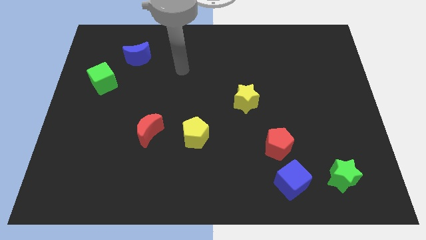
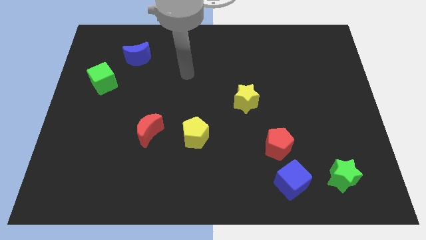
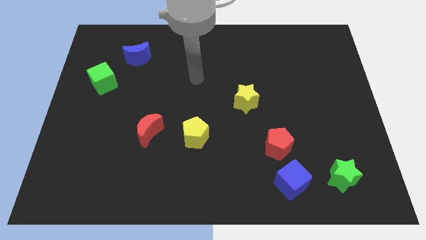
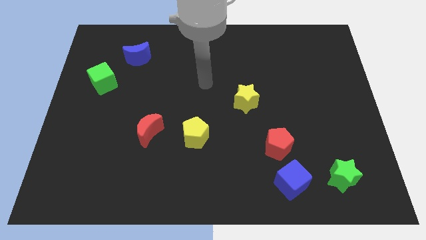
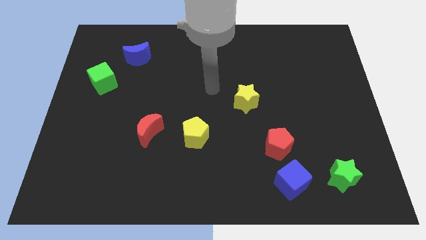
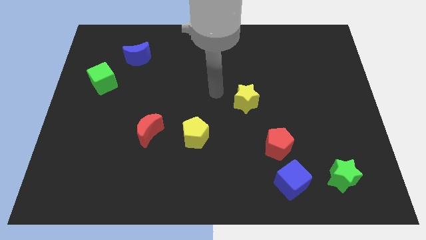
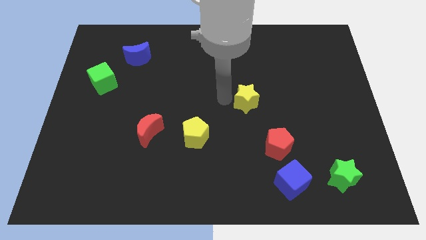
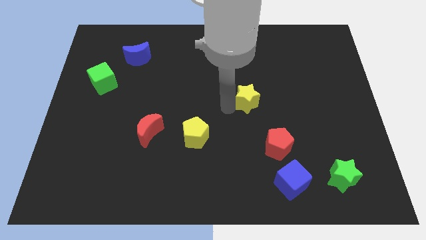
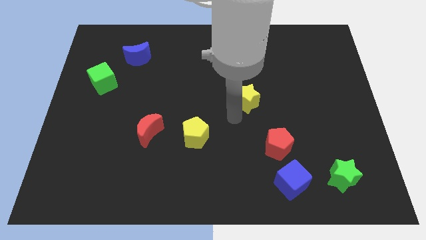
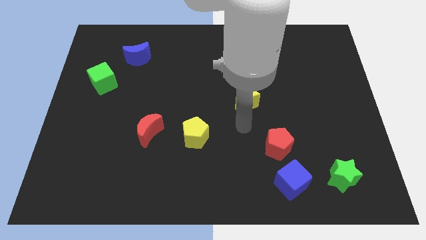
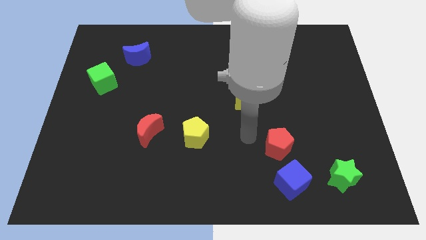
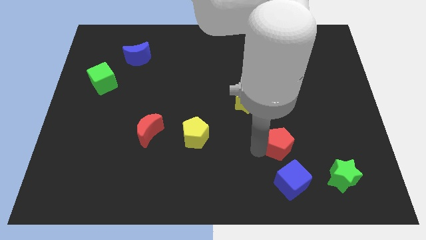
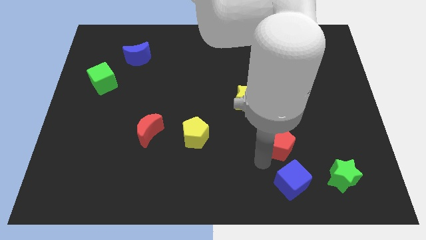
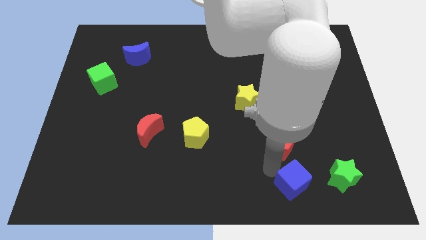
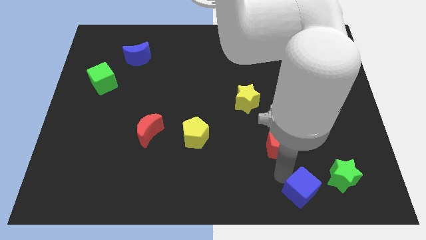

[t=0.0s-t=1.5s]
move the red pentagon away from the blue cube

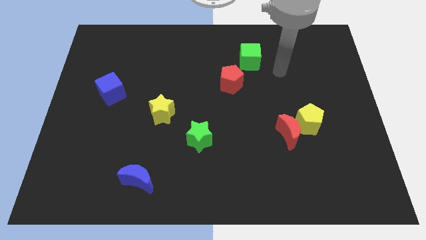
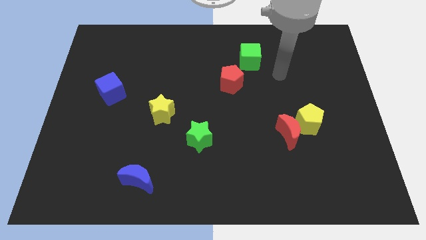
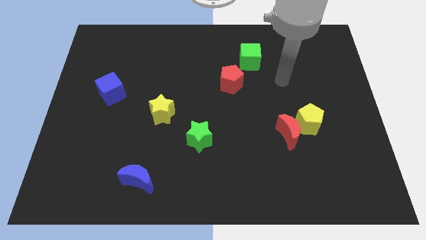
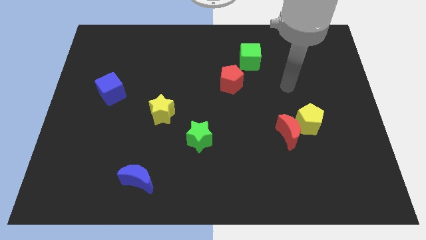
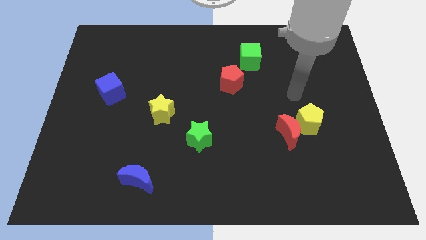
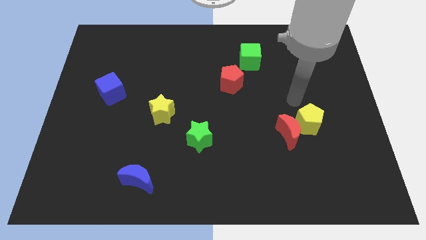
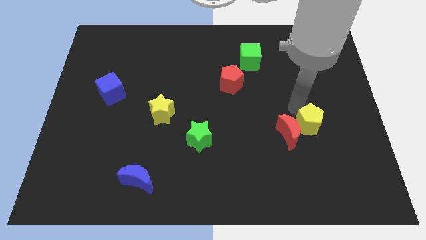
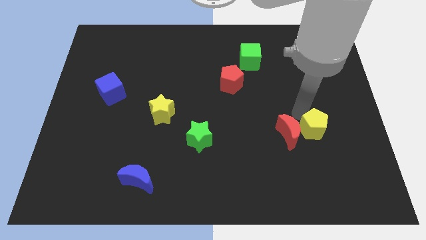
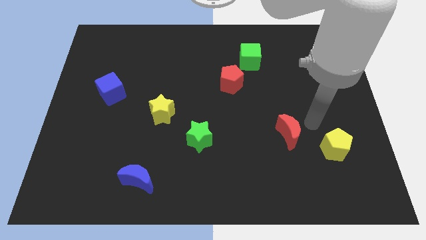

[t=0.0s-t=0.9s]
pull the red moon apart from the yellow pentagon

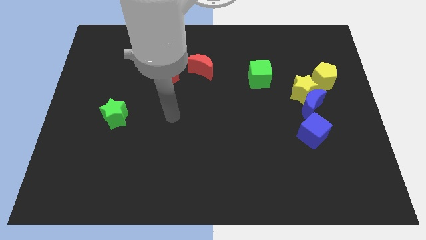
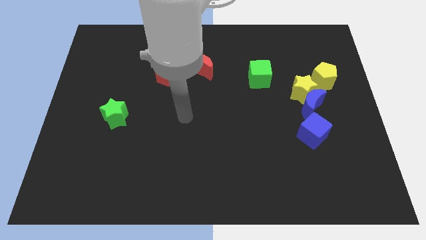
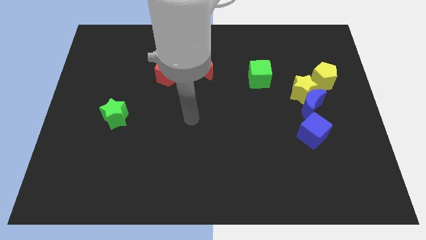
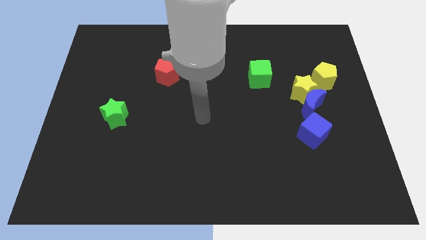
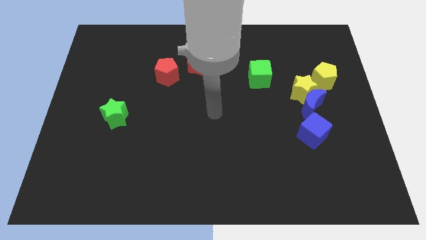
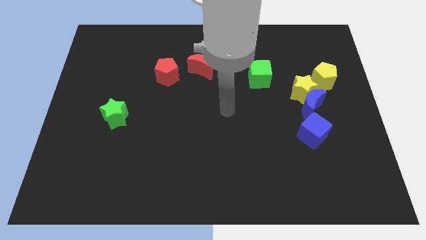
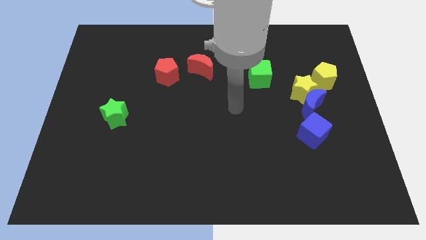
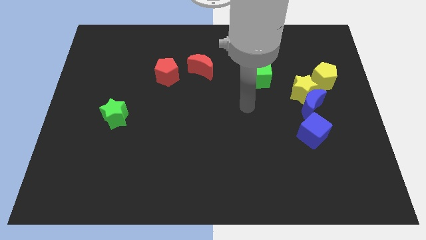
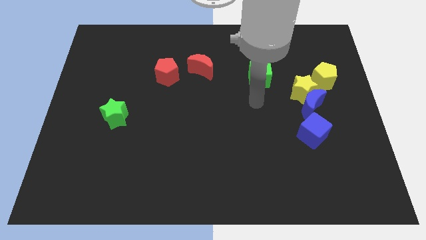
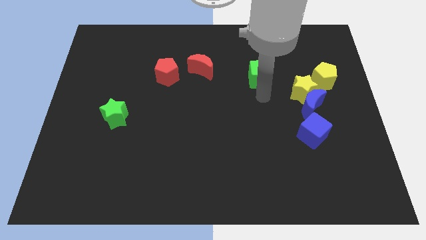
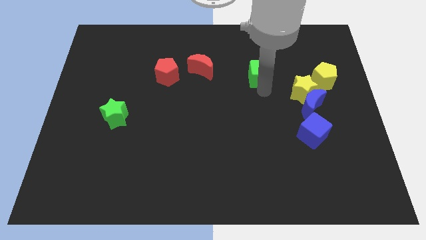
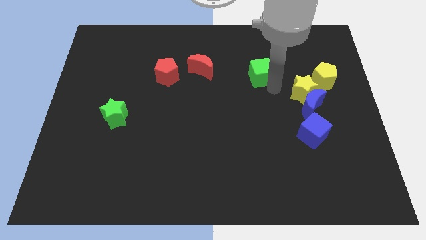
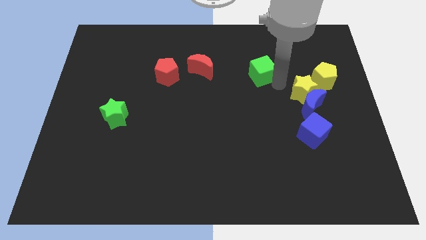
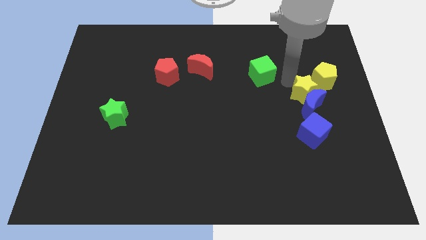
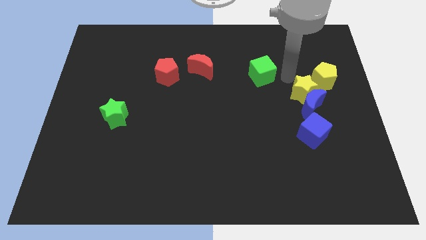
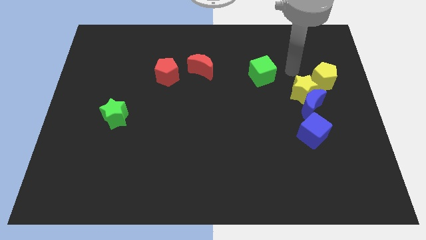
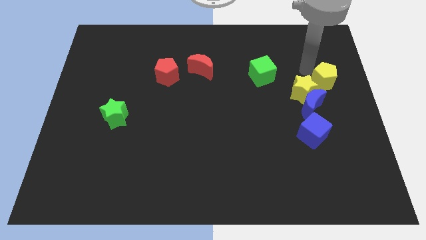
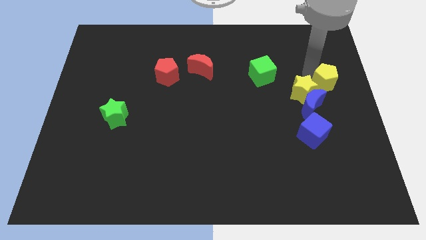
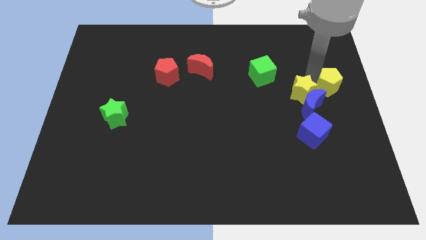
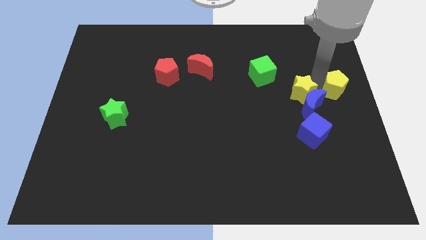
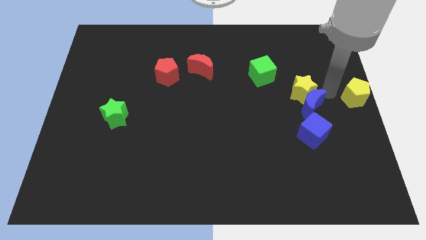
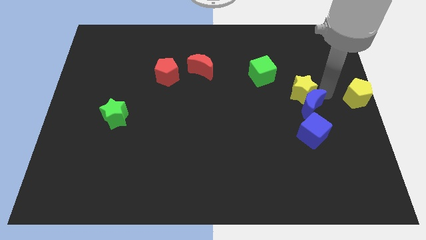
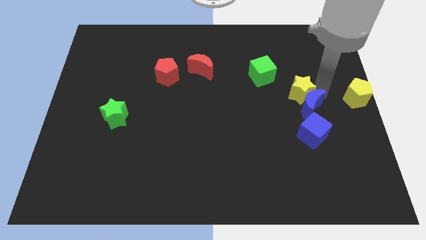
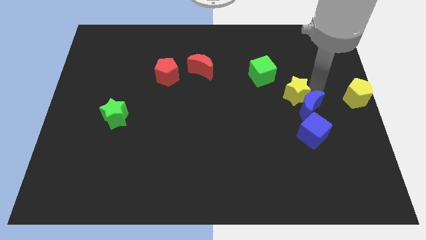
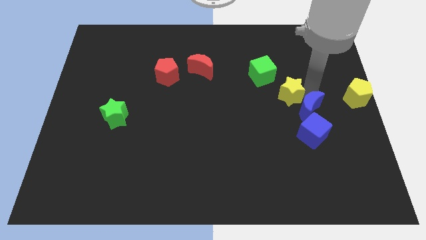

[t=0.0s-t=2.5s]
separate the yellow star from the blue moon and yellow pentagon

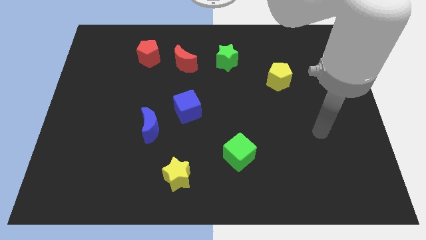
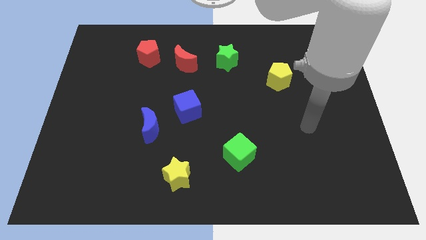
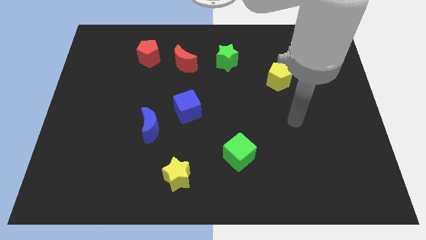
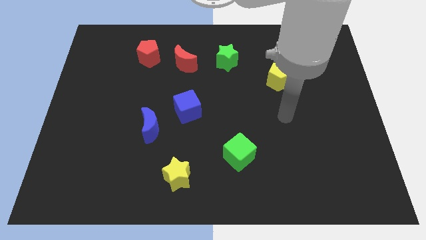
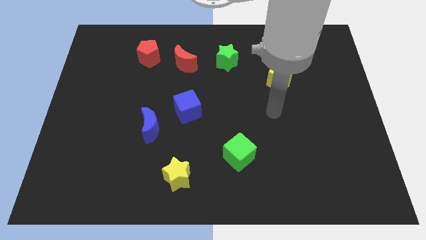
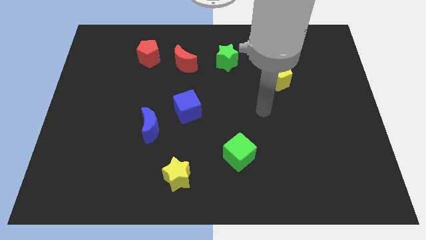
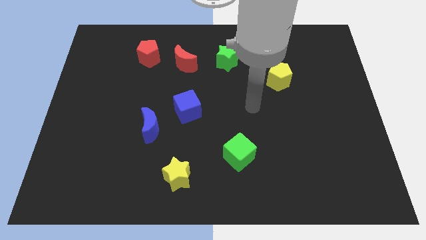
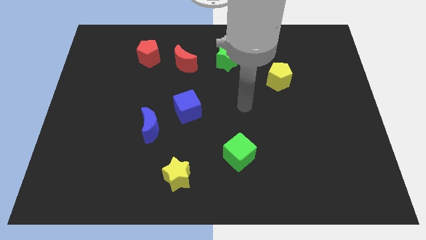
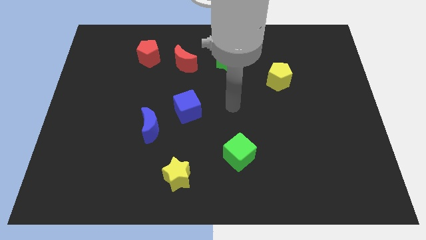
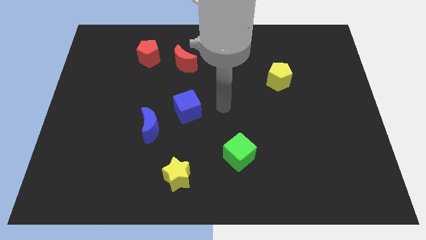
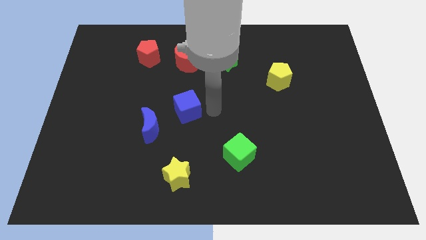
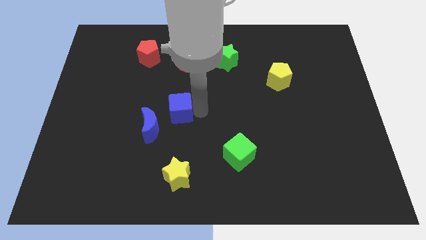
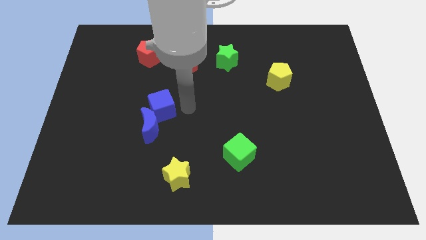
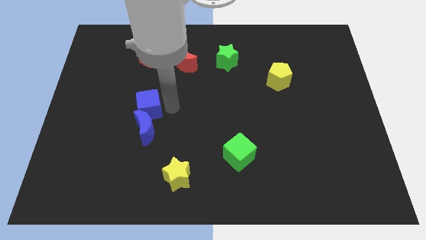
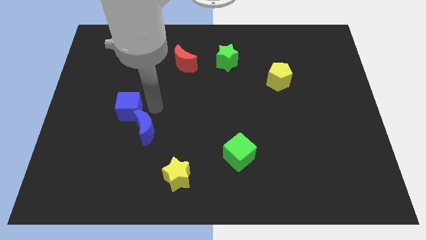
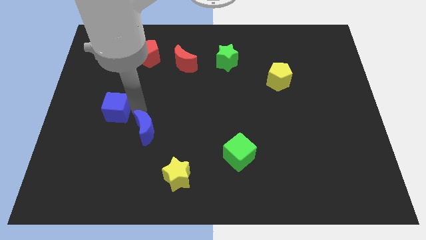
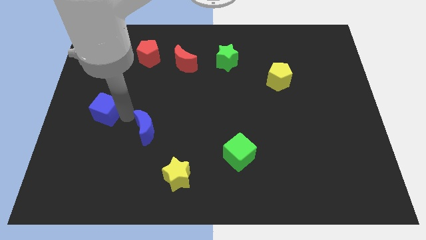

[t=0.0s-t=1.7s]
pull the blue moon apart from the blue cube

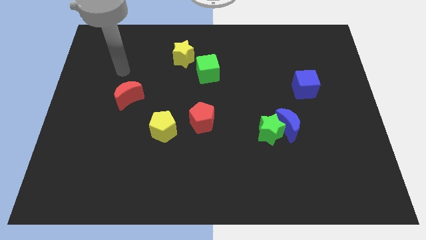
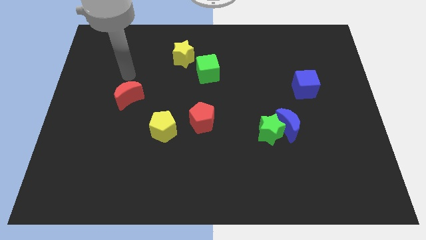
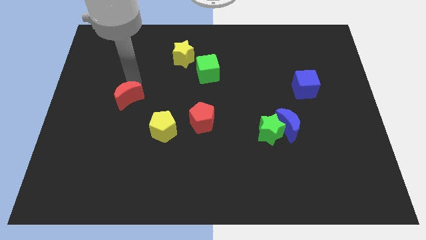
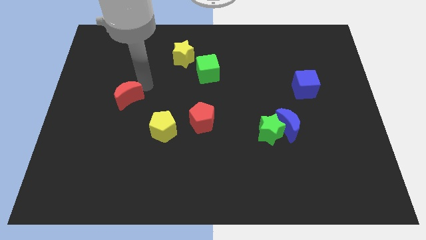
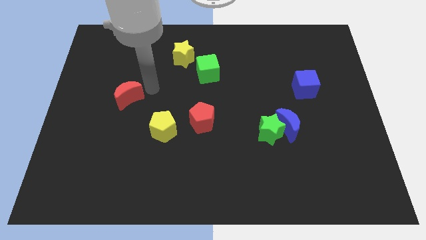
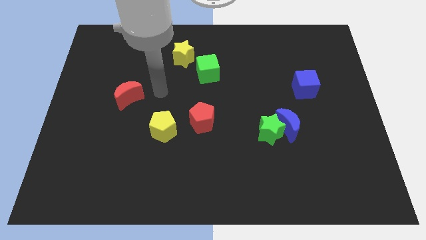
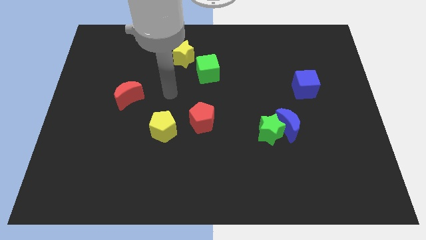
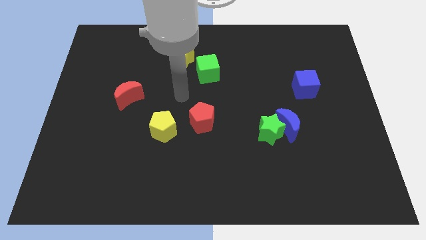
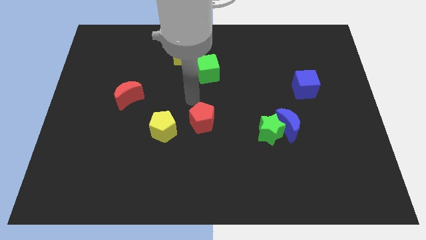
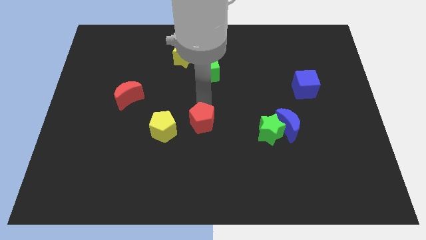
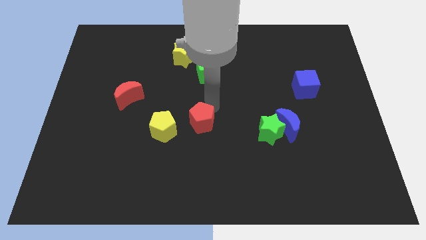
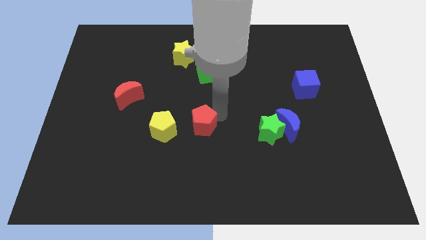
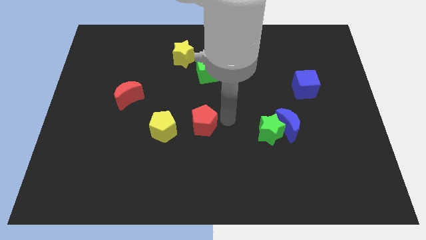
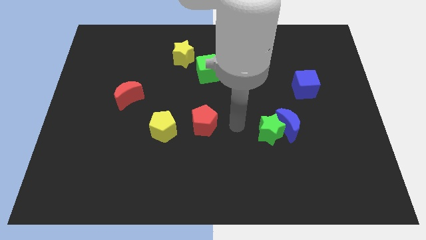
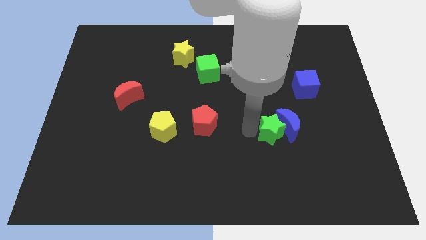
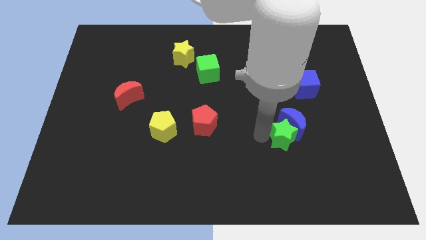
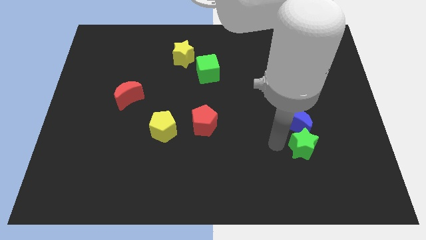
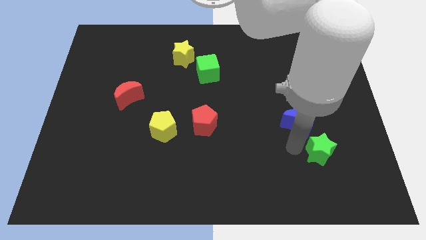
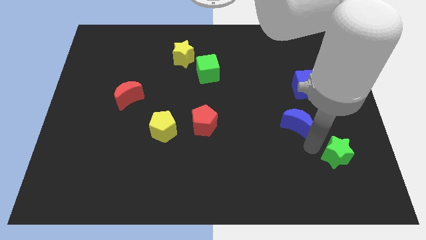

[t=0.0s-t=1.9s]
separate the blue moon from the green star

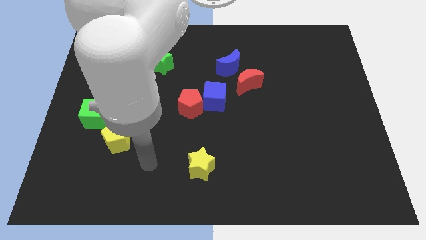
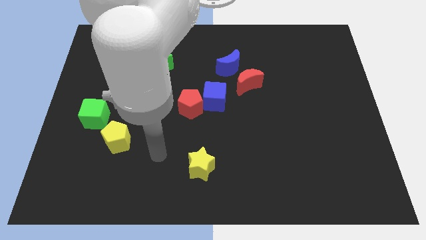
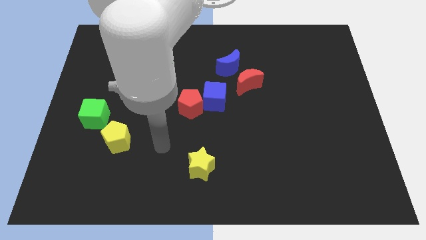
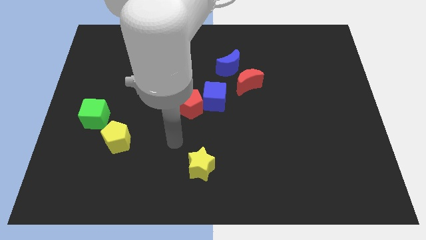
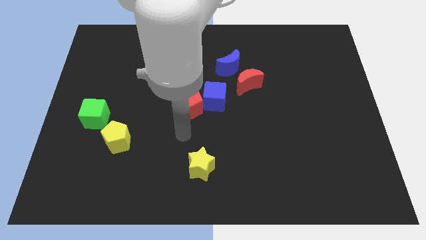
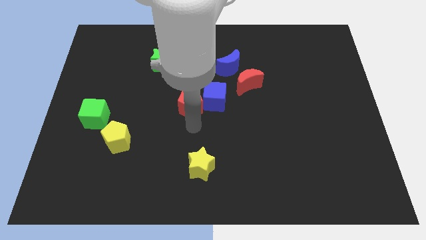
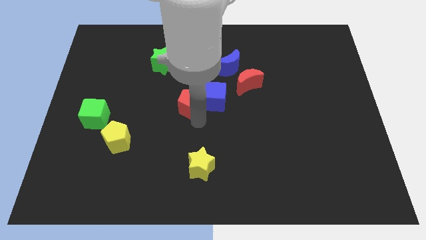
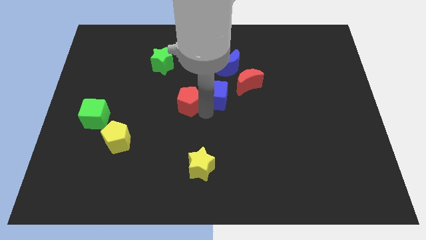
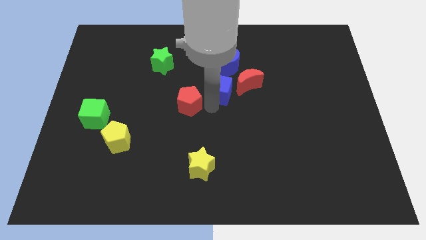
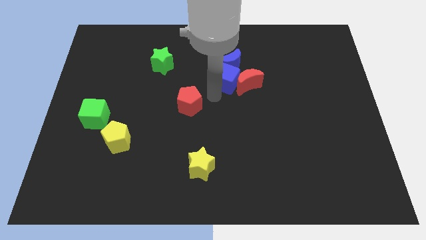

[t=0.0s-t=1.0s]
separate the red pentagon from the blue cube
